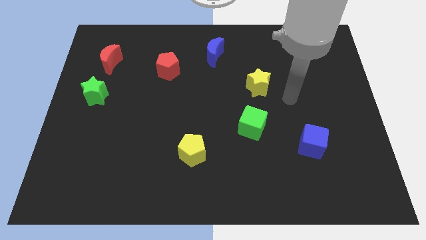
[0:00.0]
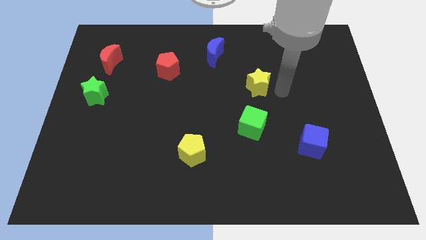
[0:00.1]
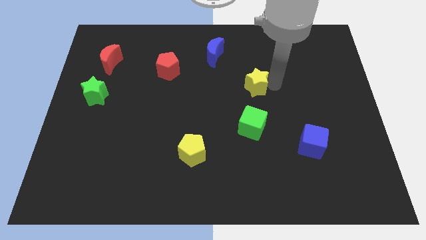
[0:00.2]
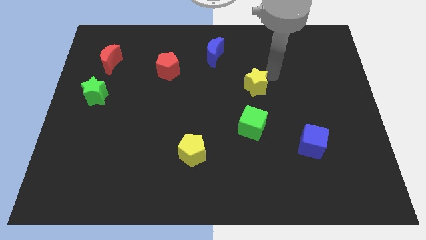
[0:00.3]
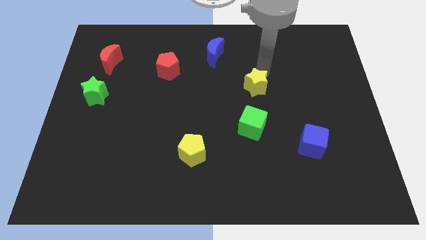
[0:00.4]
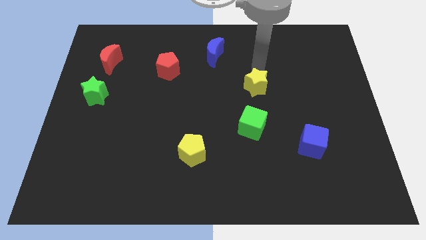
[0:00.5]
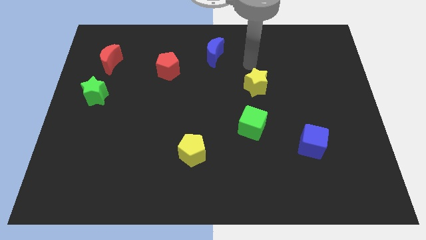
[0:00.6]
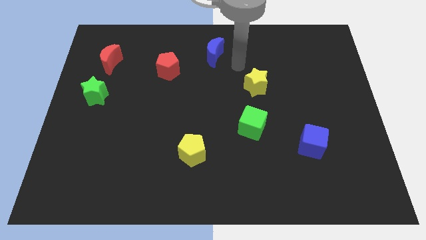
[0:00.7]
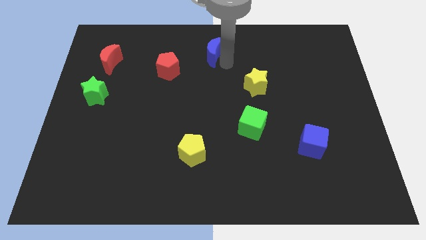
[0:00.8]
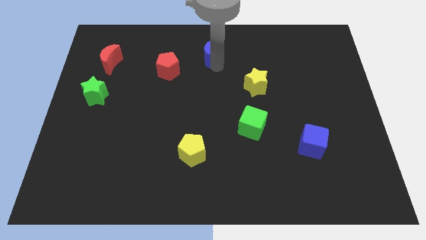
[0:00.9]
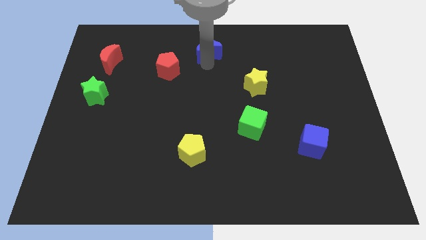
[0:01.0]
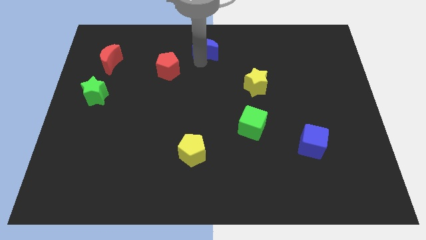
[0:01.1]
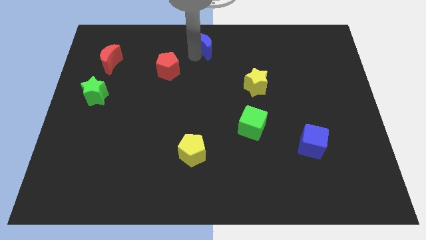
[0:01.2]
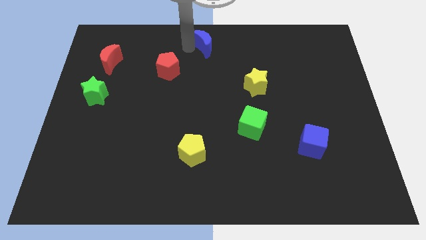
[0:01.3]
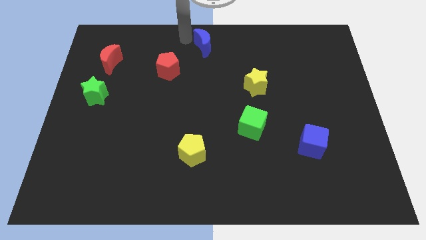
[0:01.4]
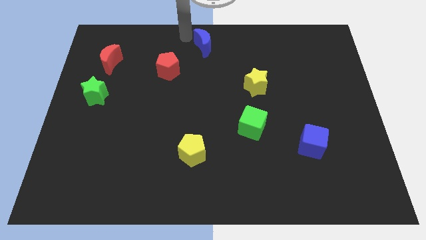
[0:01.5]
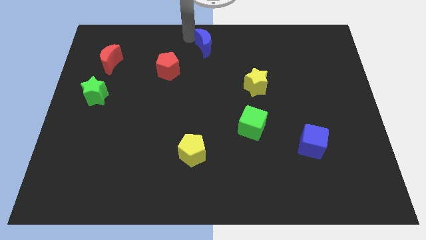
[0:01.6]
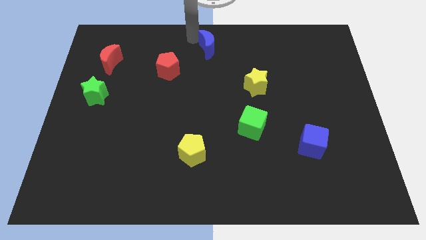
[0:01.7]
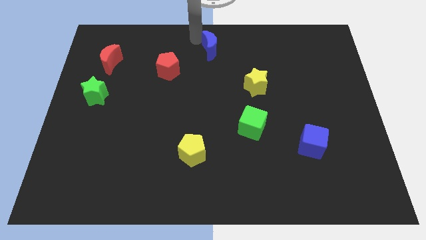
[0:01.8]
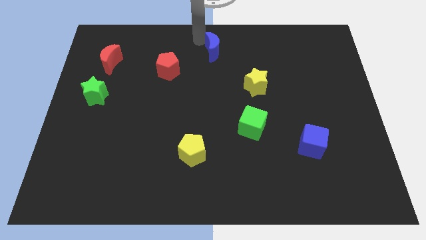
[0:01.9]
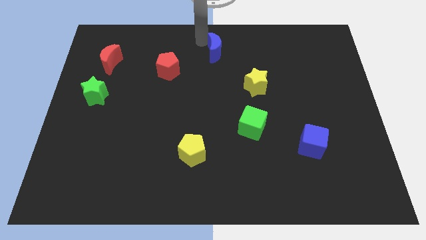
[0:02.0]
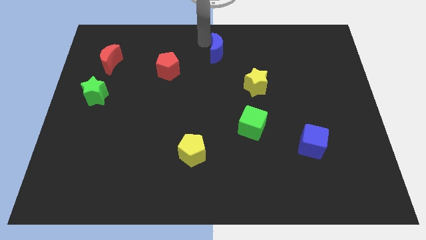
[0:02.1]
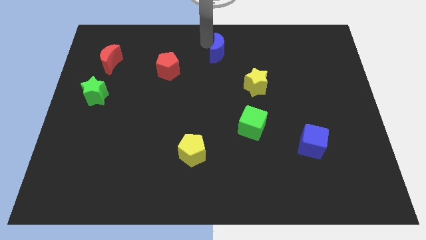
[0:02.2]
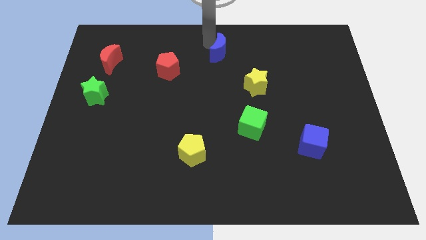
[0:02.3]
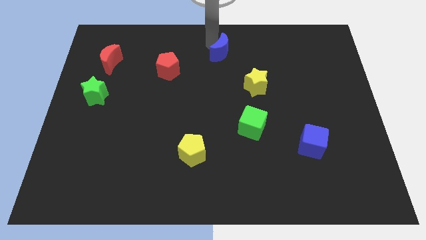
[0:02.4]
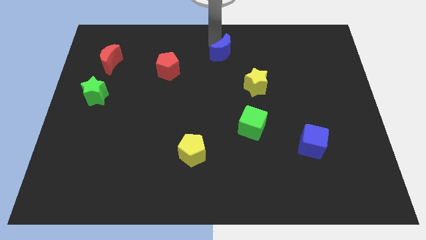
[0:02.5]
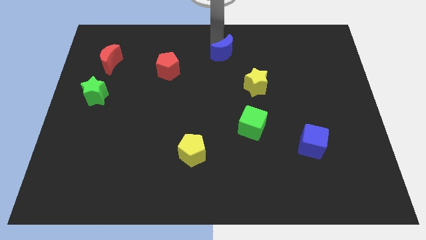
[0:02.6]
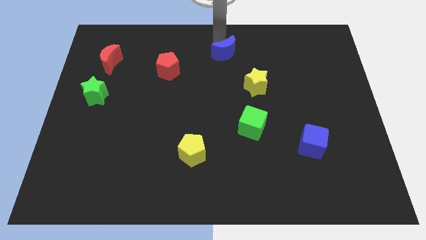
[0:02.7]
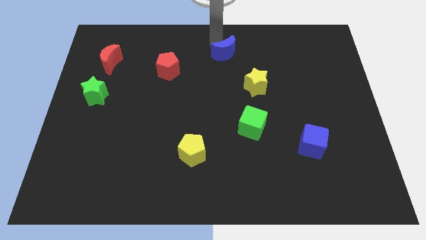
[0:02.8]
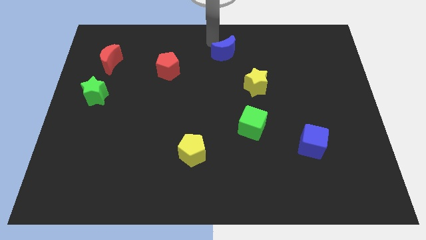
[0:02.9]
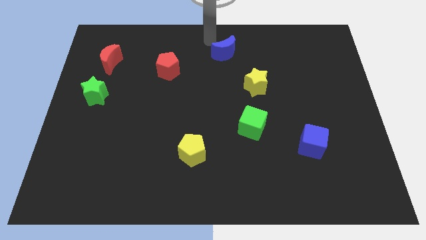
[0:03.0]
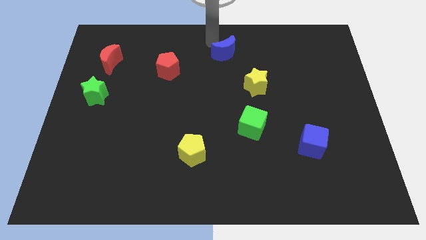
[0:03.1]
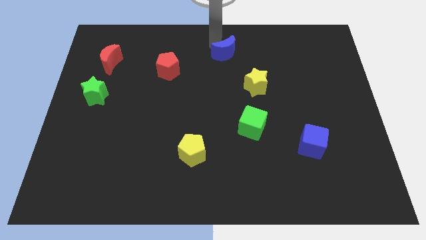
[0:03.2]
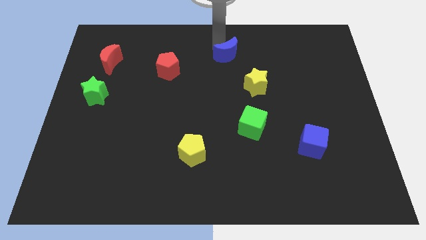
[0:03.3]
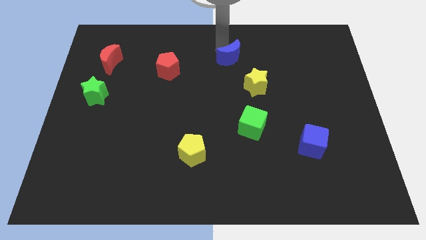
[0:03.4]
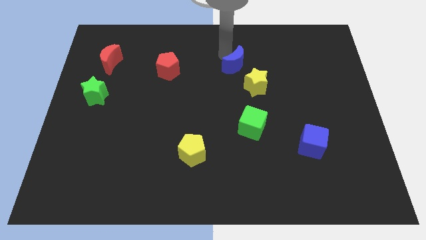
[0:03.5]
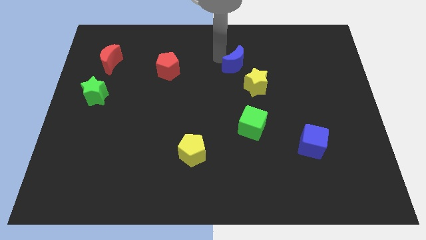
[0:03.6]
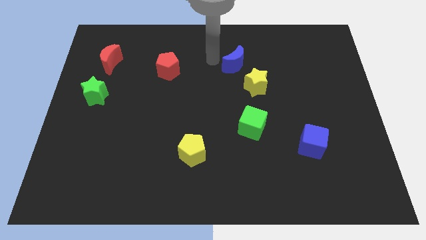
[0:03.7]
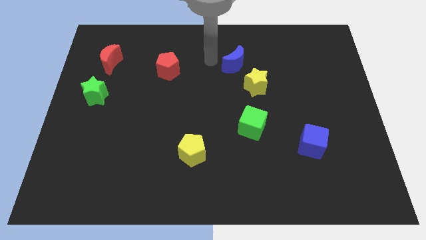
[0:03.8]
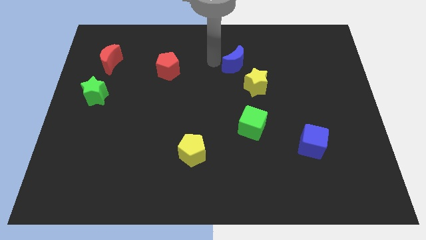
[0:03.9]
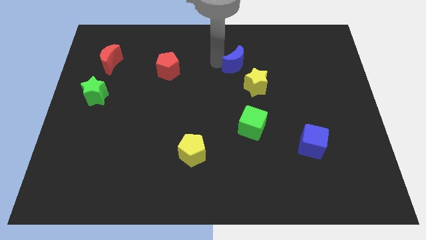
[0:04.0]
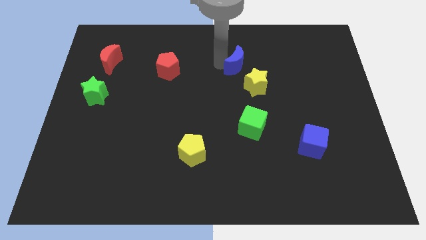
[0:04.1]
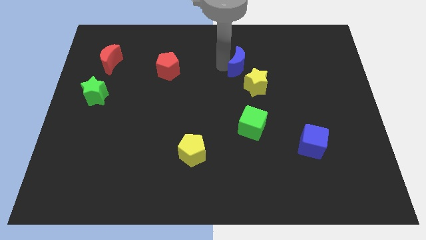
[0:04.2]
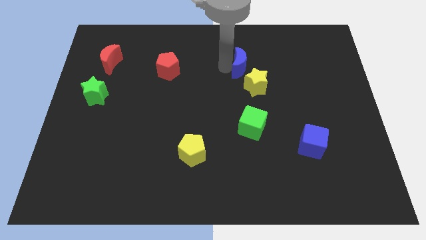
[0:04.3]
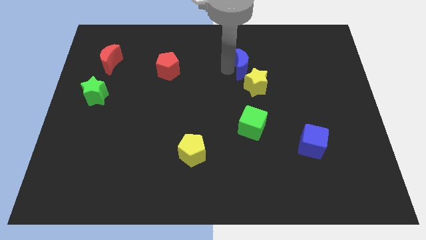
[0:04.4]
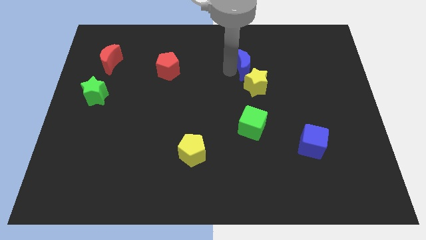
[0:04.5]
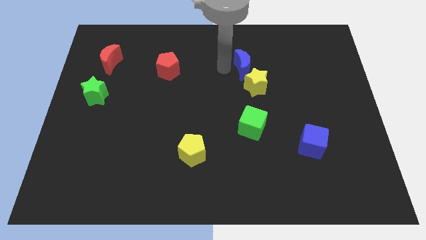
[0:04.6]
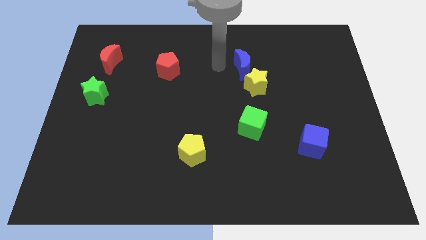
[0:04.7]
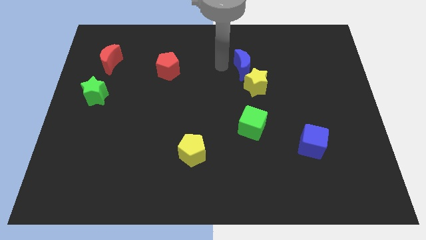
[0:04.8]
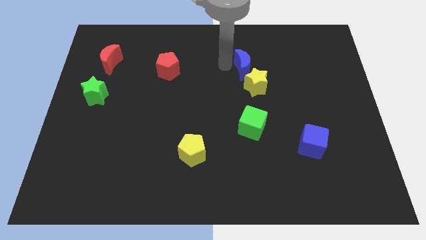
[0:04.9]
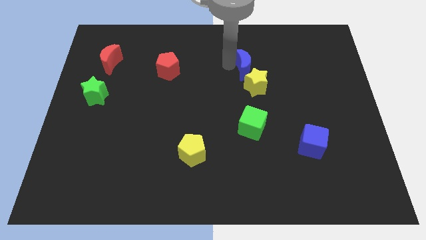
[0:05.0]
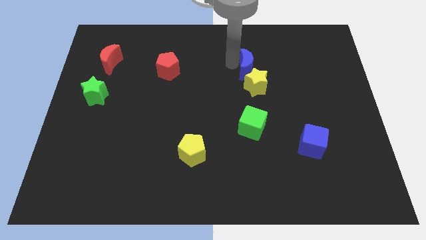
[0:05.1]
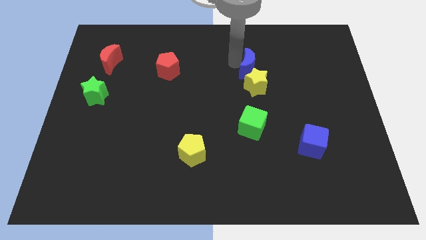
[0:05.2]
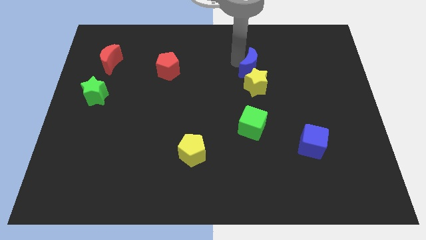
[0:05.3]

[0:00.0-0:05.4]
put the blue moon to the top right of the yellow star

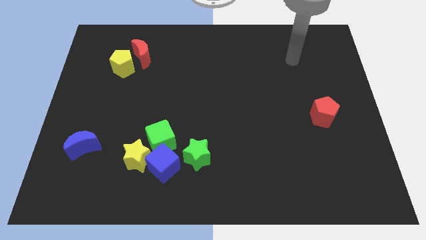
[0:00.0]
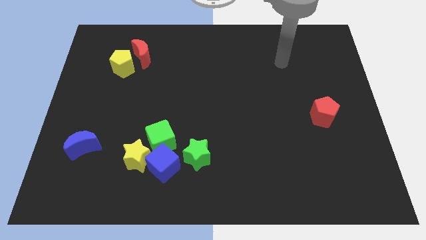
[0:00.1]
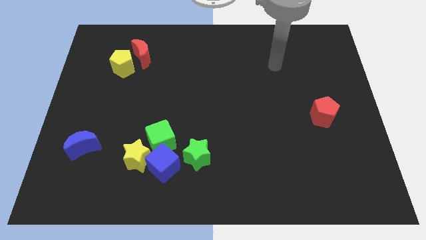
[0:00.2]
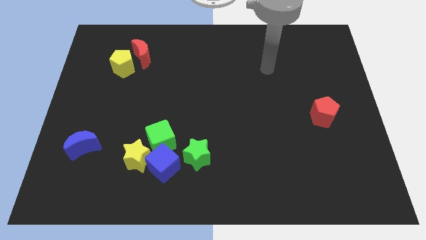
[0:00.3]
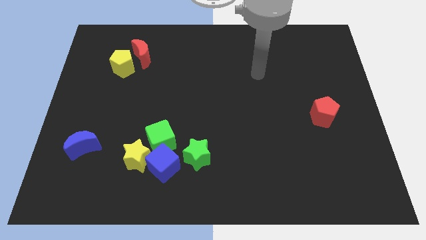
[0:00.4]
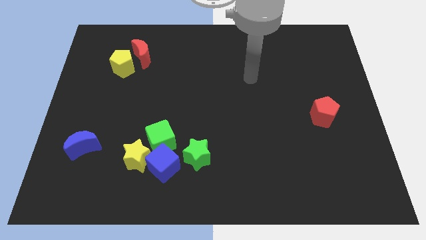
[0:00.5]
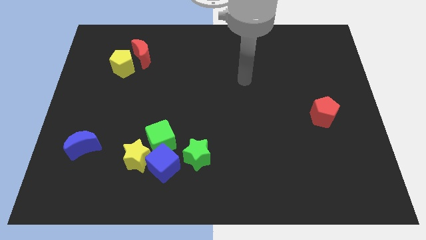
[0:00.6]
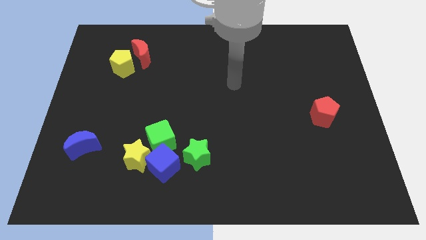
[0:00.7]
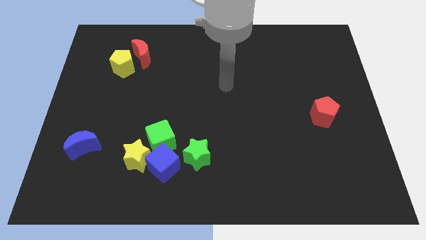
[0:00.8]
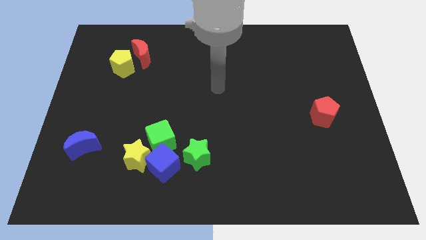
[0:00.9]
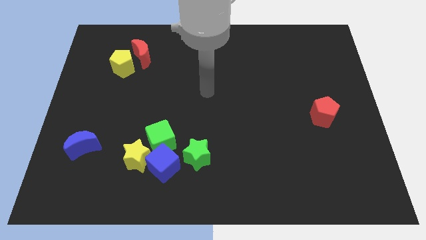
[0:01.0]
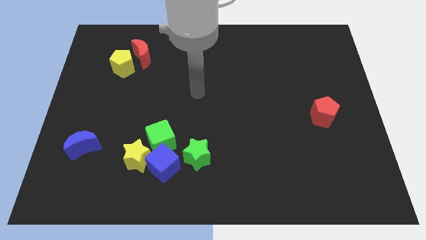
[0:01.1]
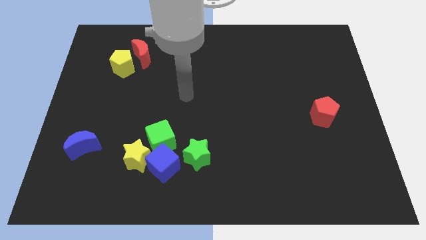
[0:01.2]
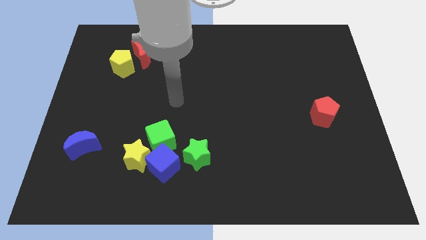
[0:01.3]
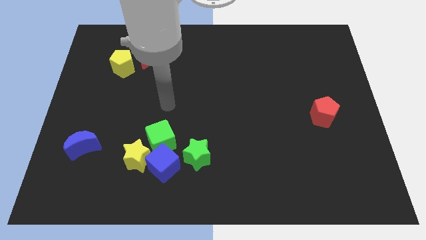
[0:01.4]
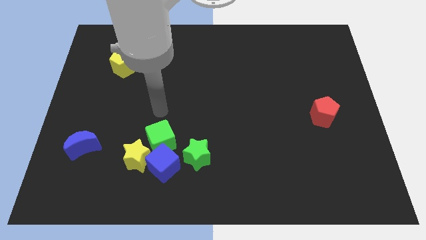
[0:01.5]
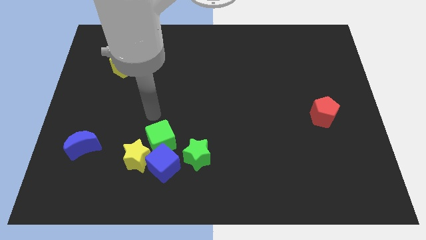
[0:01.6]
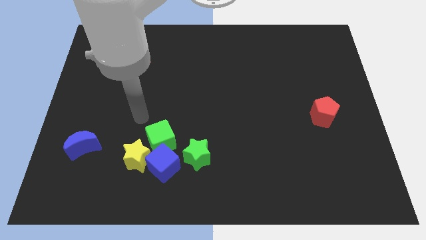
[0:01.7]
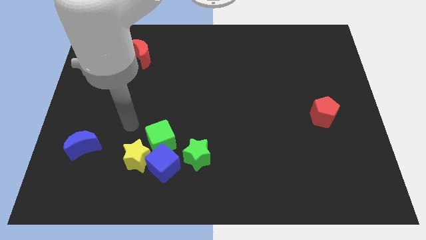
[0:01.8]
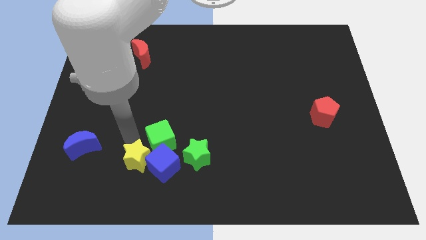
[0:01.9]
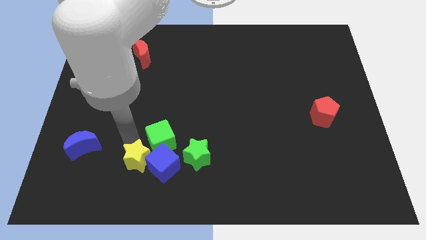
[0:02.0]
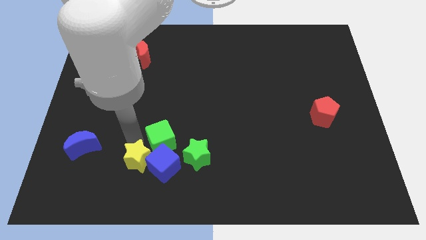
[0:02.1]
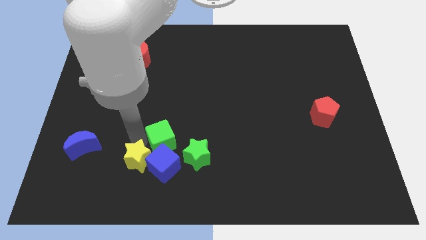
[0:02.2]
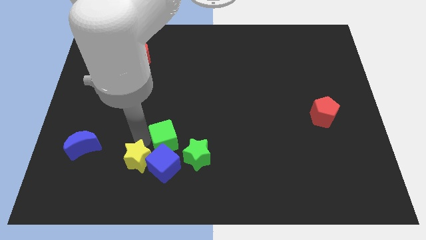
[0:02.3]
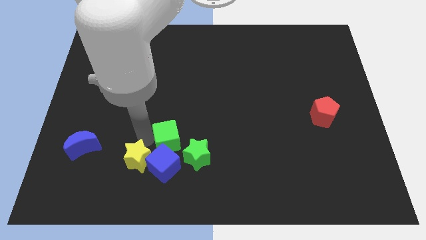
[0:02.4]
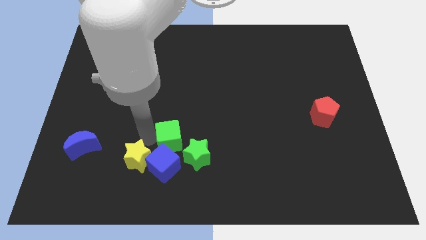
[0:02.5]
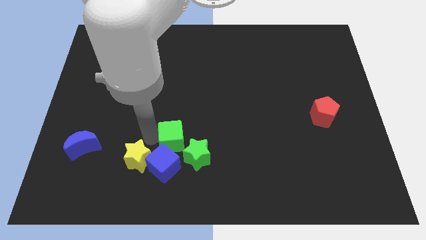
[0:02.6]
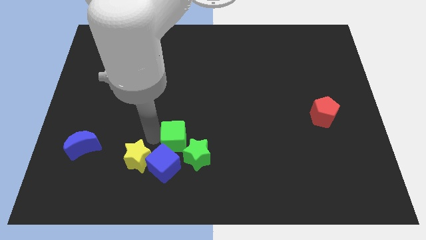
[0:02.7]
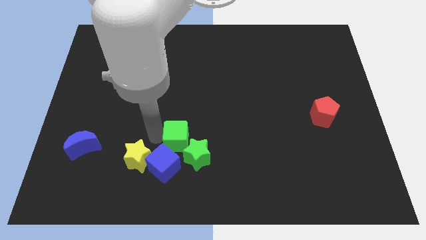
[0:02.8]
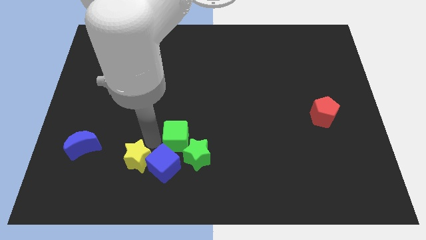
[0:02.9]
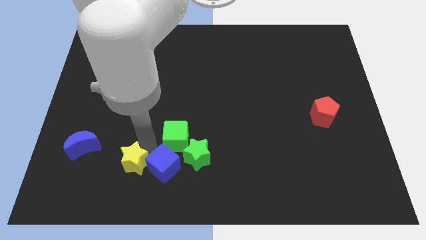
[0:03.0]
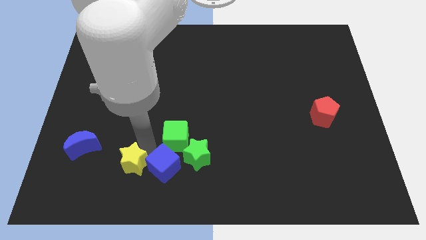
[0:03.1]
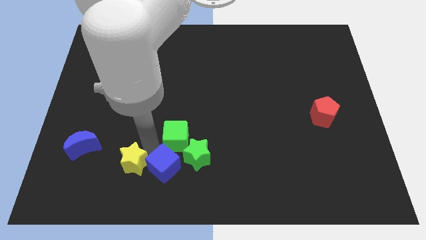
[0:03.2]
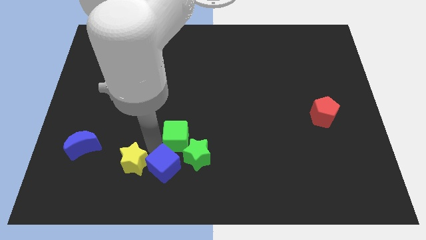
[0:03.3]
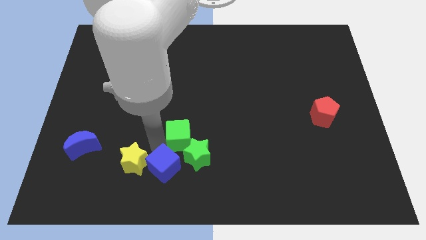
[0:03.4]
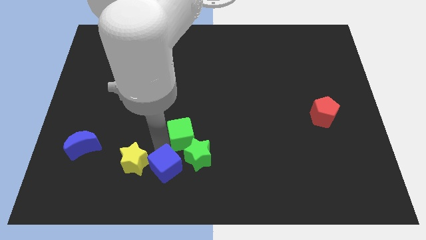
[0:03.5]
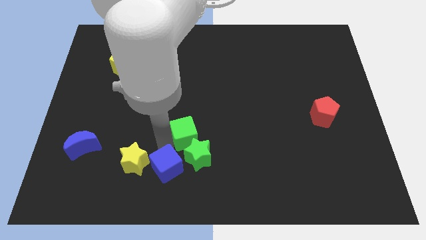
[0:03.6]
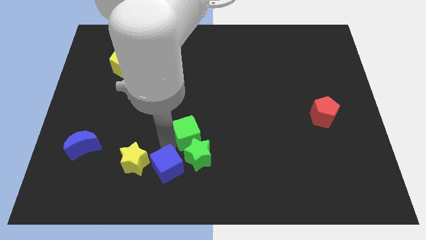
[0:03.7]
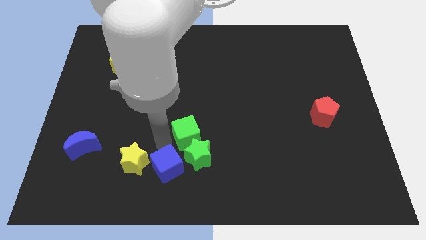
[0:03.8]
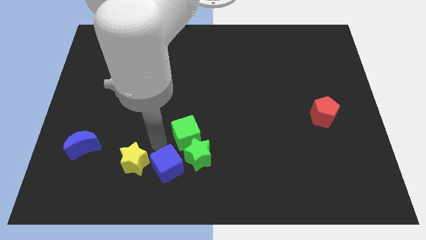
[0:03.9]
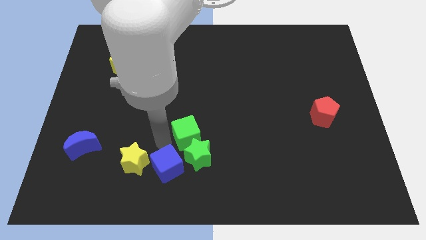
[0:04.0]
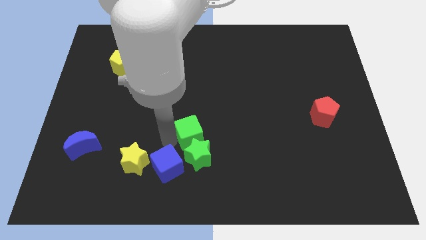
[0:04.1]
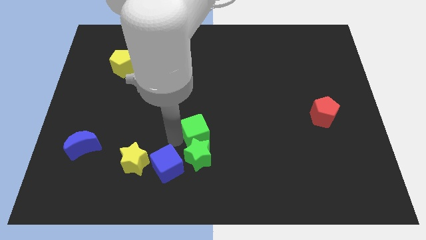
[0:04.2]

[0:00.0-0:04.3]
push the green cube diagonally up and to the right of the green star
